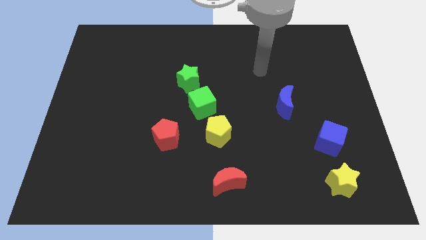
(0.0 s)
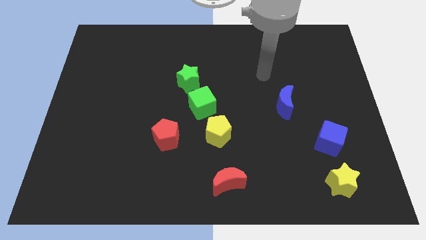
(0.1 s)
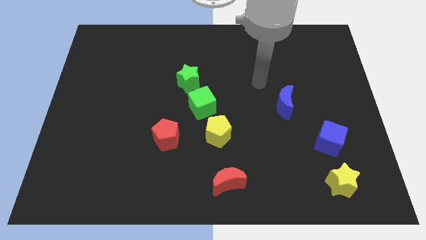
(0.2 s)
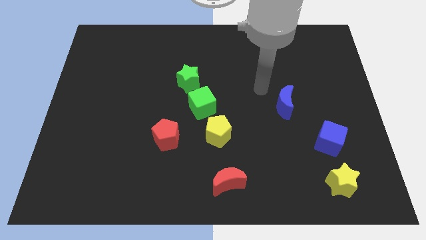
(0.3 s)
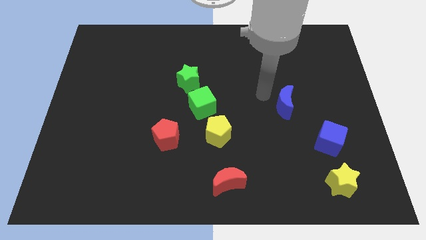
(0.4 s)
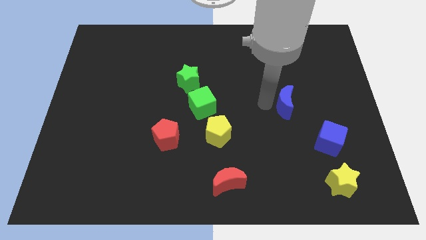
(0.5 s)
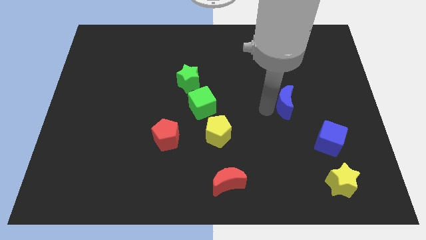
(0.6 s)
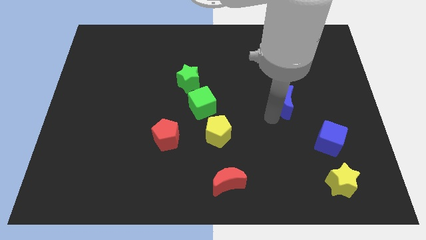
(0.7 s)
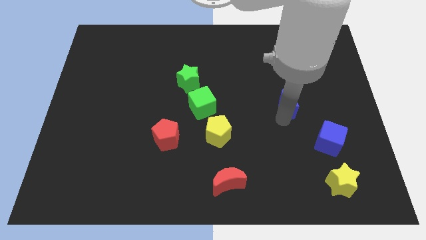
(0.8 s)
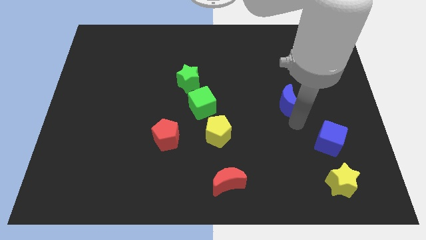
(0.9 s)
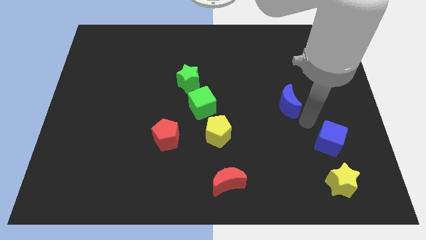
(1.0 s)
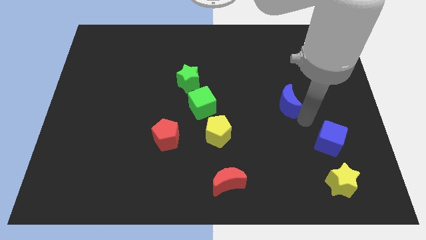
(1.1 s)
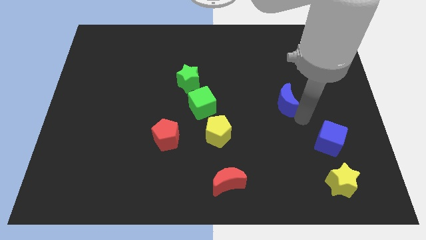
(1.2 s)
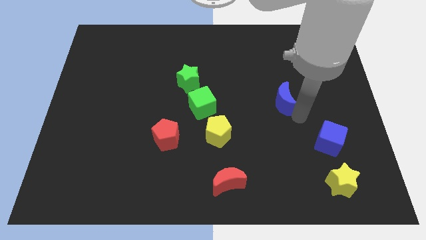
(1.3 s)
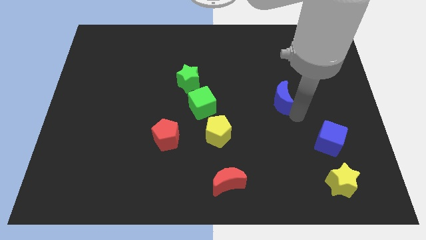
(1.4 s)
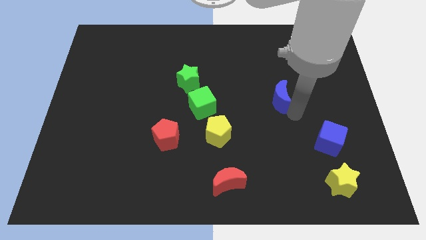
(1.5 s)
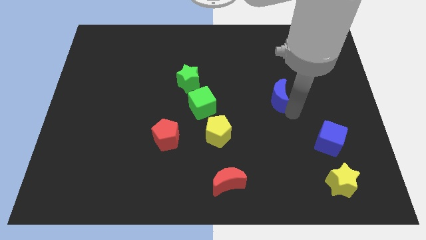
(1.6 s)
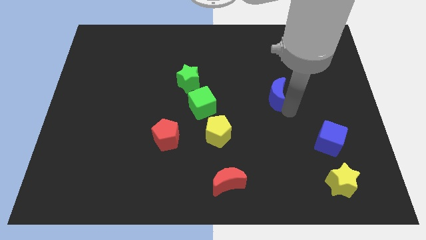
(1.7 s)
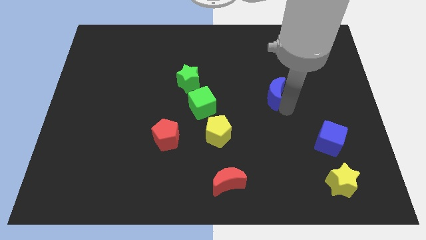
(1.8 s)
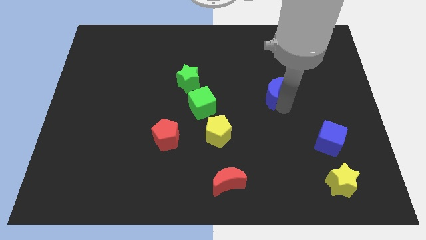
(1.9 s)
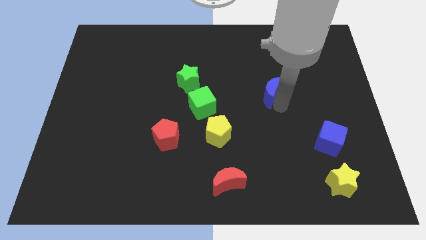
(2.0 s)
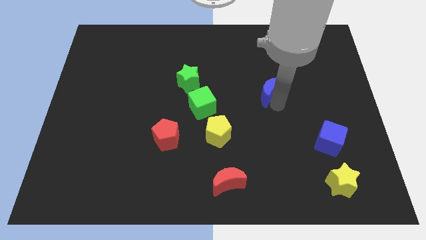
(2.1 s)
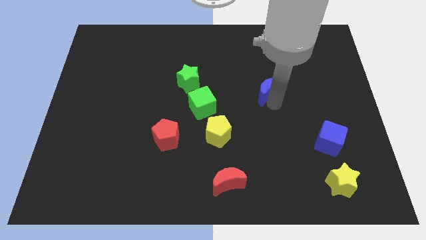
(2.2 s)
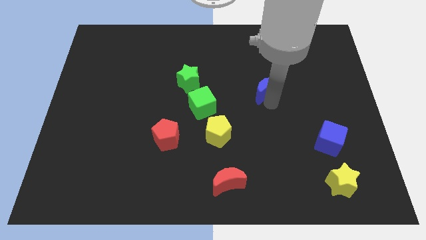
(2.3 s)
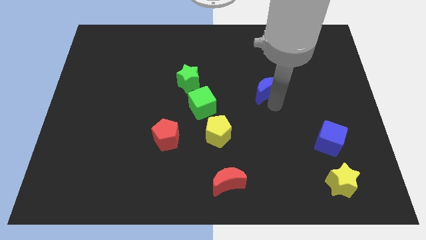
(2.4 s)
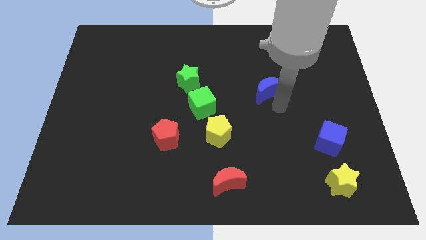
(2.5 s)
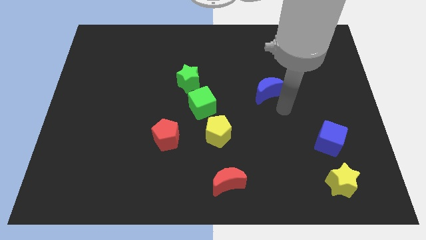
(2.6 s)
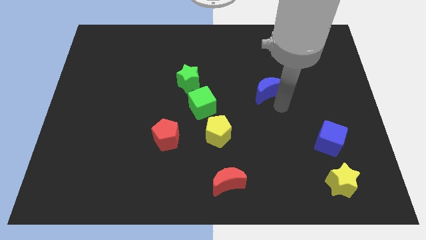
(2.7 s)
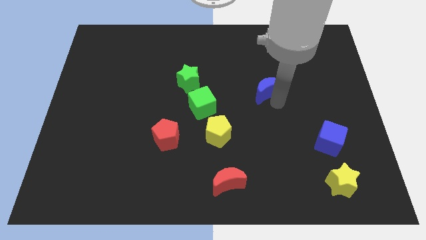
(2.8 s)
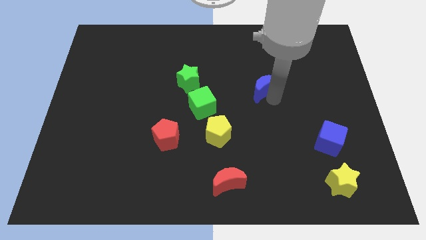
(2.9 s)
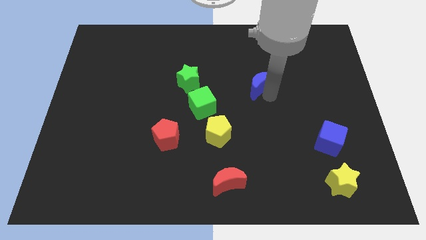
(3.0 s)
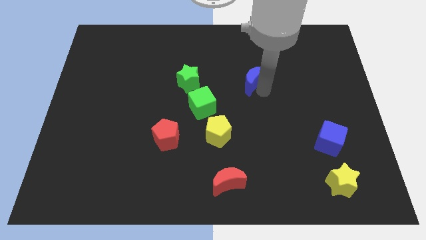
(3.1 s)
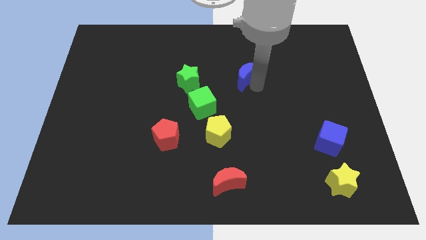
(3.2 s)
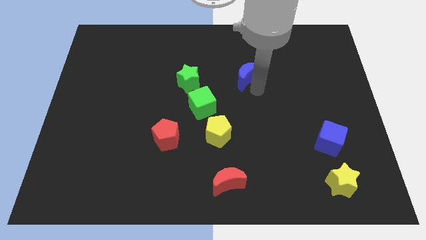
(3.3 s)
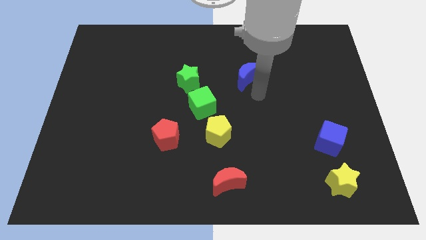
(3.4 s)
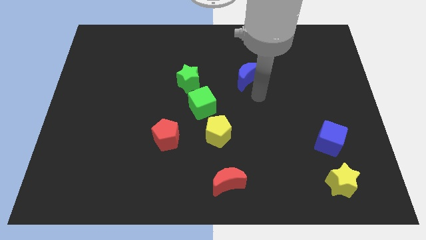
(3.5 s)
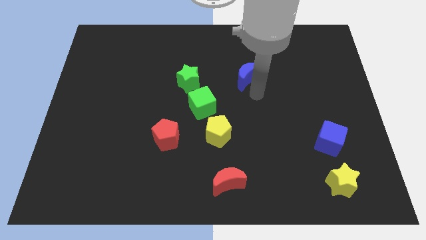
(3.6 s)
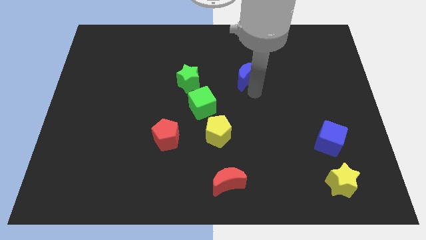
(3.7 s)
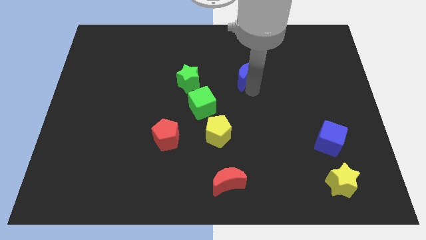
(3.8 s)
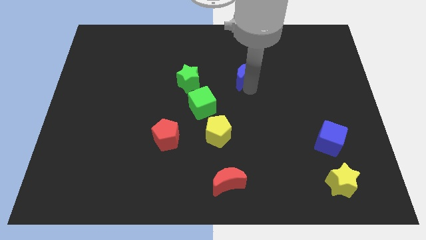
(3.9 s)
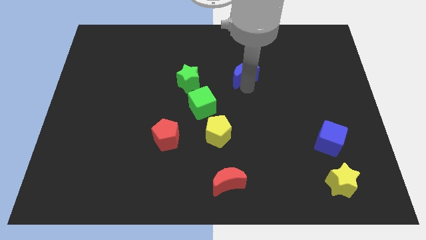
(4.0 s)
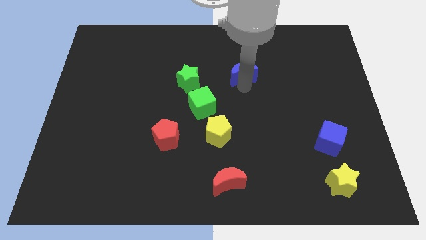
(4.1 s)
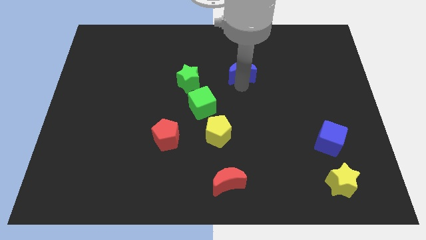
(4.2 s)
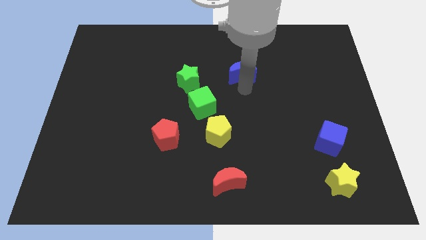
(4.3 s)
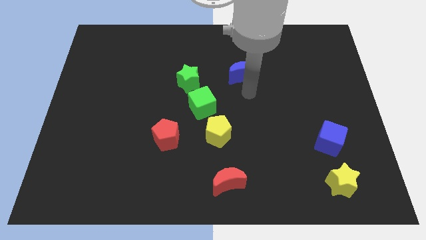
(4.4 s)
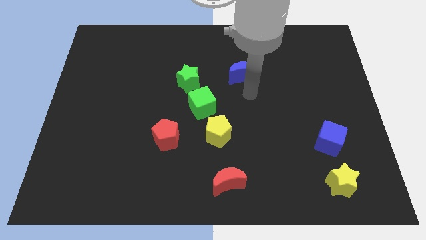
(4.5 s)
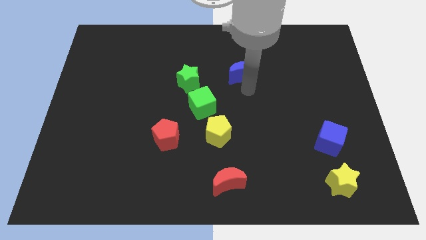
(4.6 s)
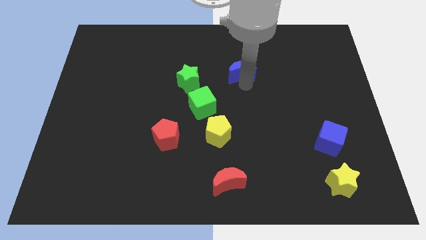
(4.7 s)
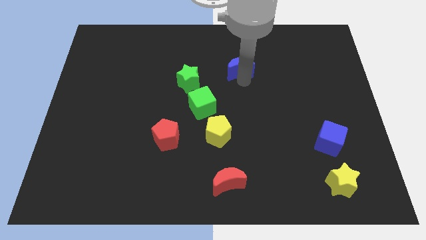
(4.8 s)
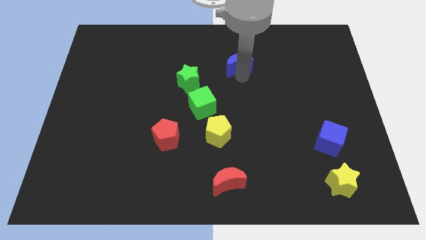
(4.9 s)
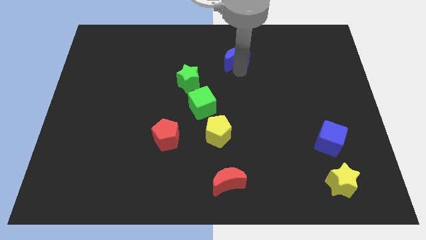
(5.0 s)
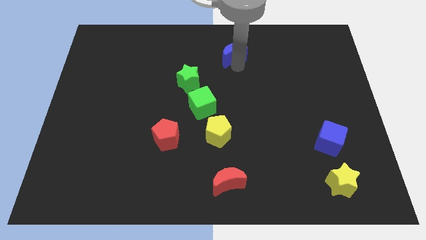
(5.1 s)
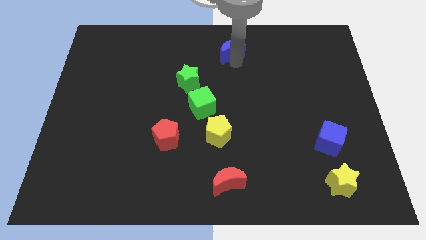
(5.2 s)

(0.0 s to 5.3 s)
move the blue moon to the towards your base

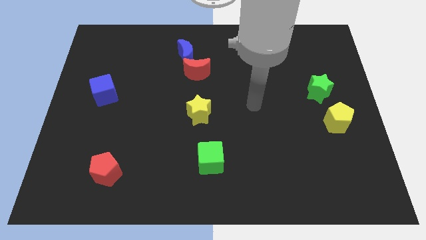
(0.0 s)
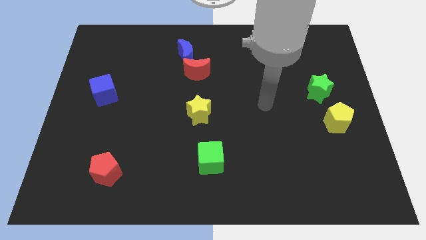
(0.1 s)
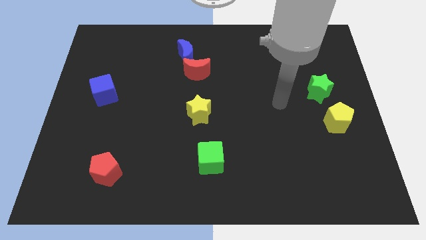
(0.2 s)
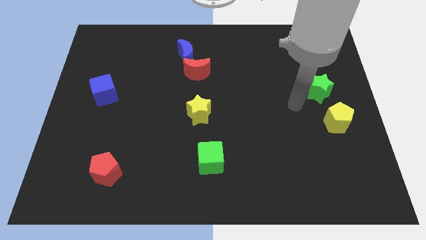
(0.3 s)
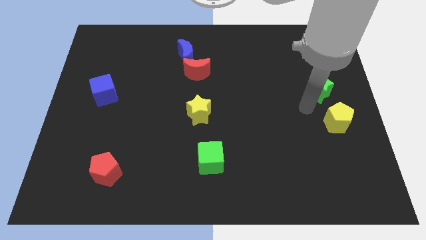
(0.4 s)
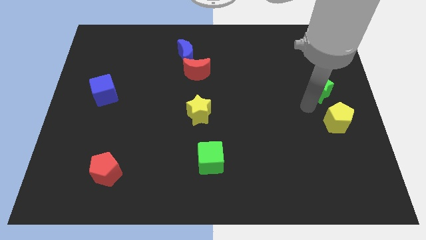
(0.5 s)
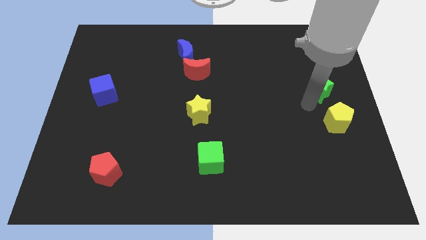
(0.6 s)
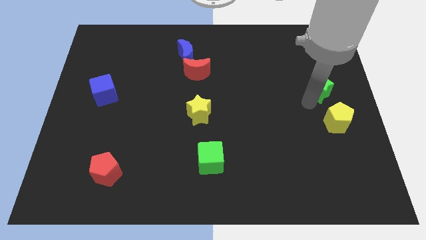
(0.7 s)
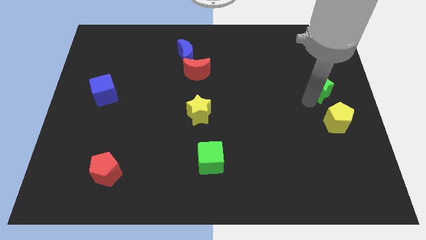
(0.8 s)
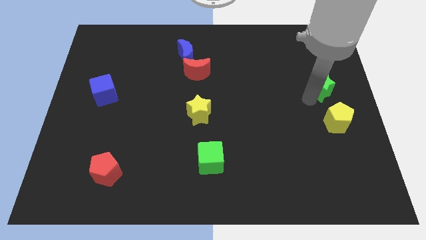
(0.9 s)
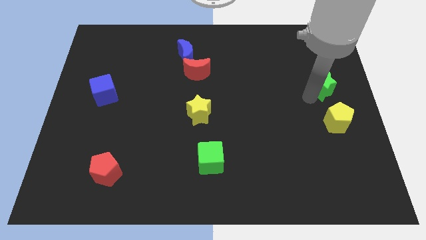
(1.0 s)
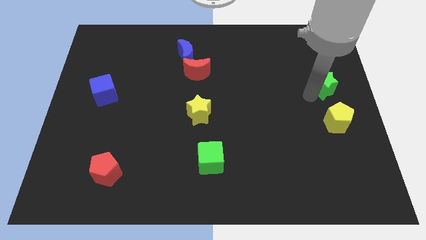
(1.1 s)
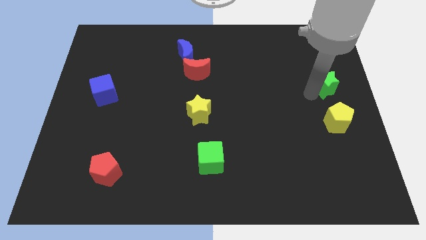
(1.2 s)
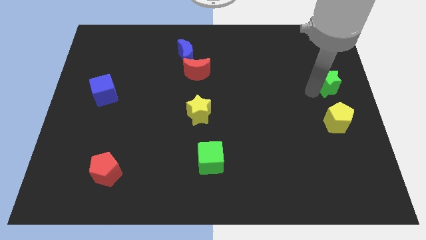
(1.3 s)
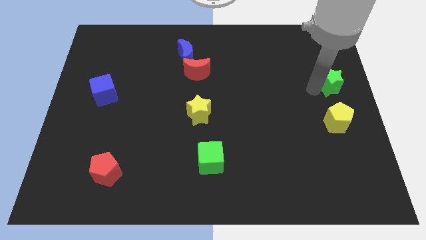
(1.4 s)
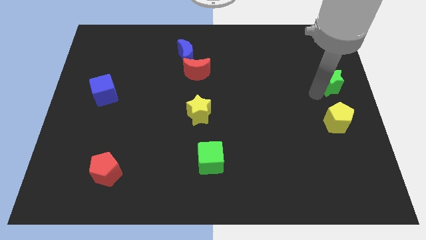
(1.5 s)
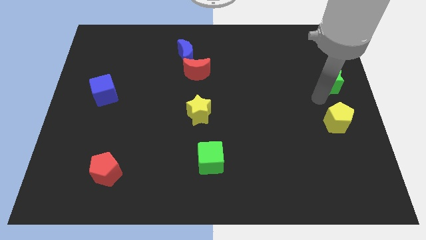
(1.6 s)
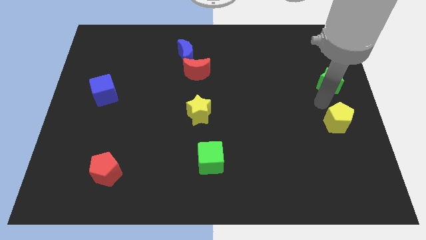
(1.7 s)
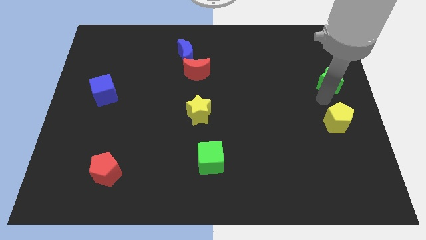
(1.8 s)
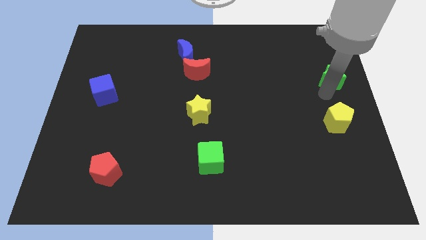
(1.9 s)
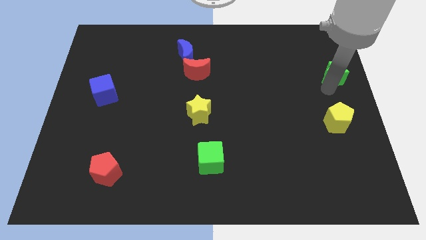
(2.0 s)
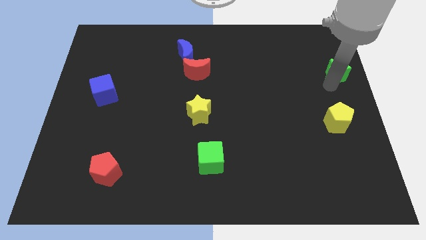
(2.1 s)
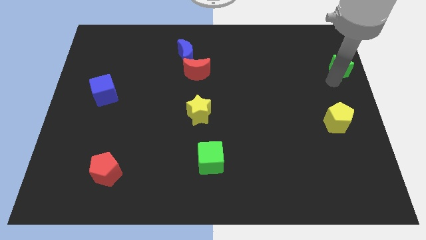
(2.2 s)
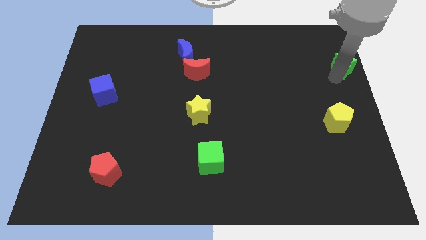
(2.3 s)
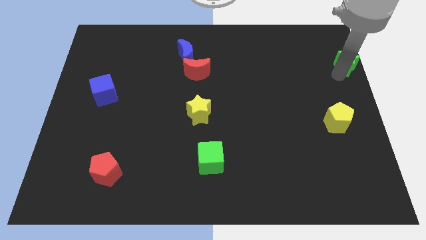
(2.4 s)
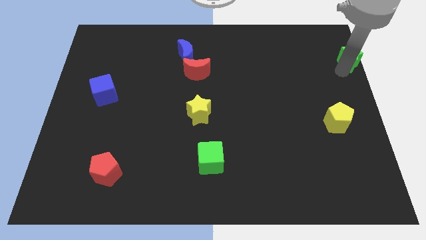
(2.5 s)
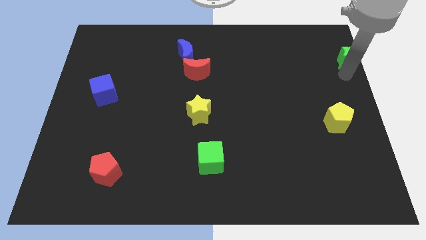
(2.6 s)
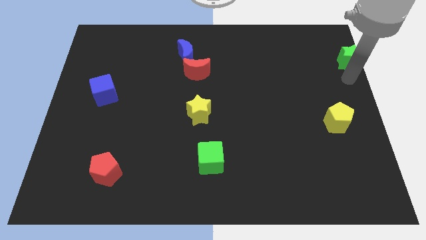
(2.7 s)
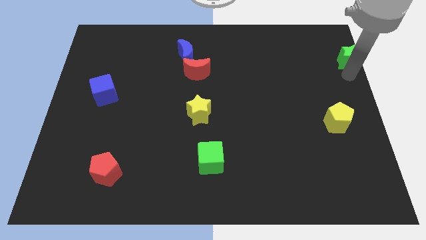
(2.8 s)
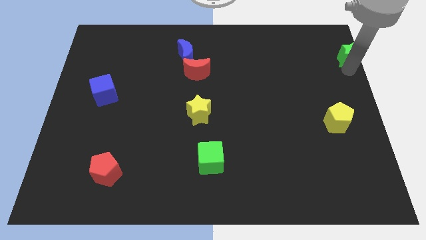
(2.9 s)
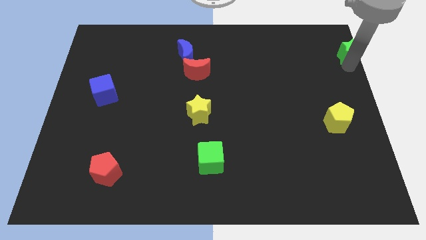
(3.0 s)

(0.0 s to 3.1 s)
slide the green star to the top right
